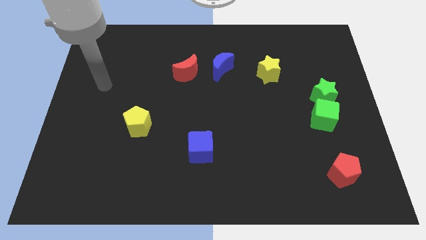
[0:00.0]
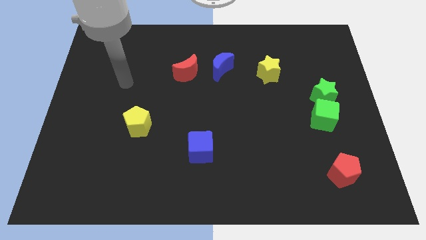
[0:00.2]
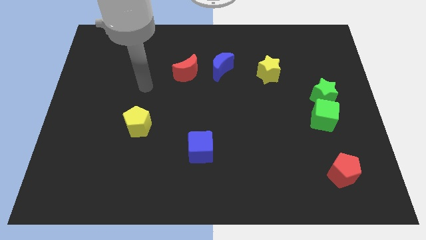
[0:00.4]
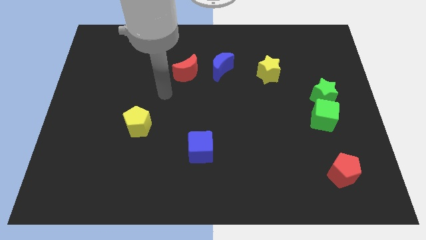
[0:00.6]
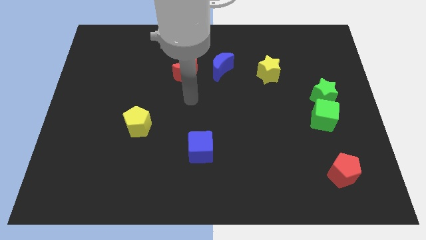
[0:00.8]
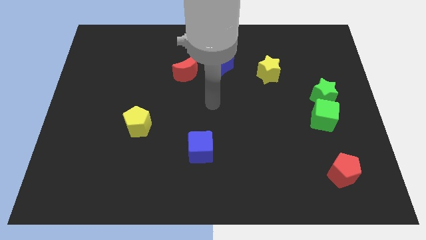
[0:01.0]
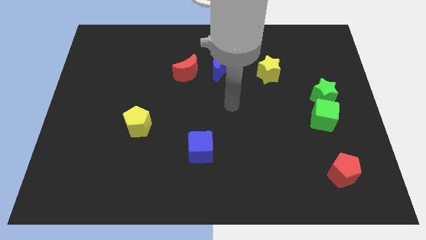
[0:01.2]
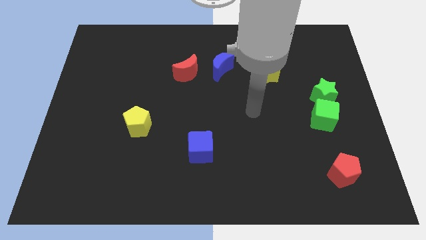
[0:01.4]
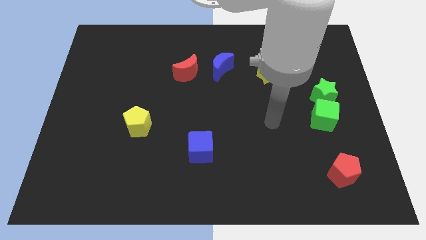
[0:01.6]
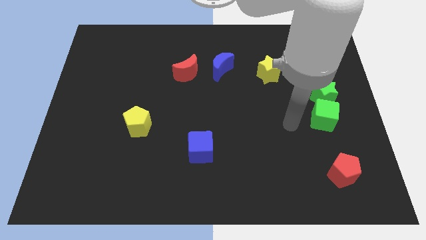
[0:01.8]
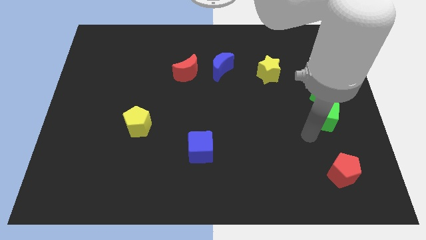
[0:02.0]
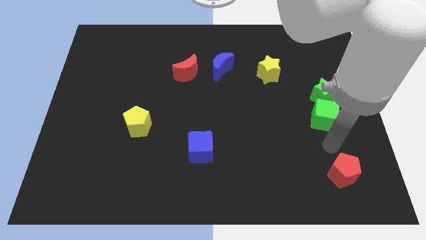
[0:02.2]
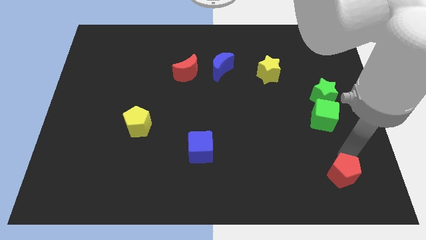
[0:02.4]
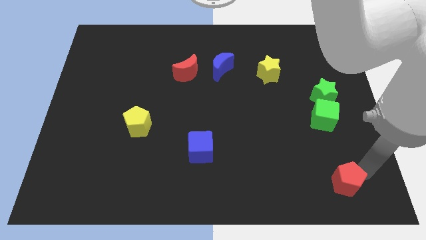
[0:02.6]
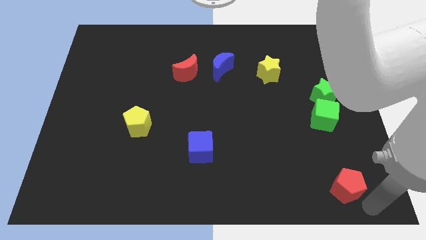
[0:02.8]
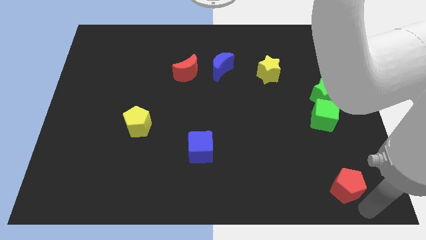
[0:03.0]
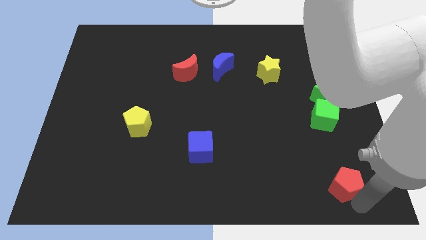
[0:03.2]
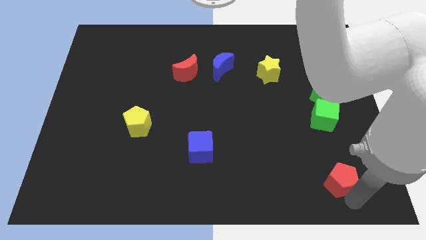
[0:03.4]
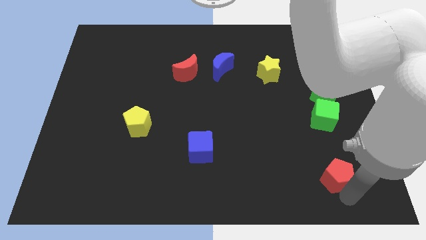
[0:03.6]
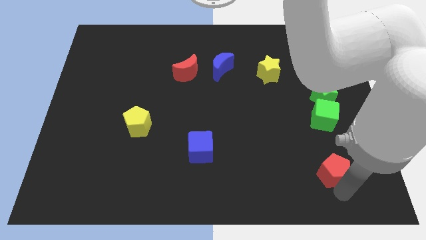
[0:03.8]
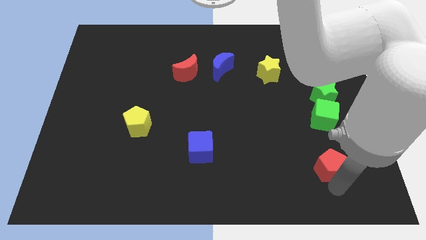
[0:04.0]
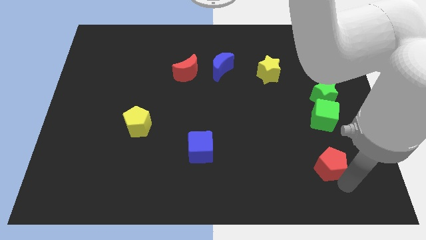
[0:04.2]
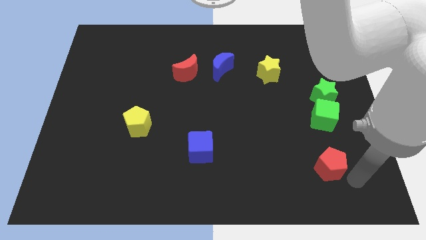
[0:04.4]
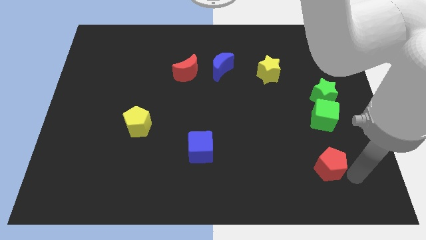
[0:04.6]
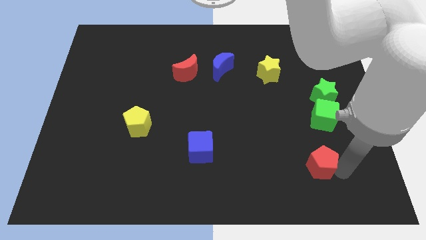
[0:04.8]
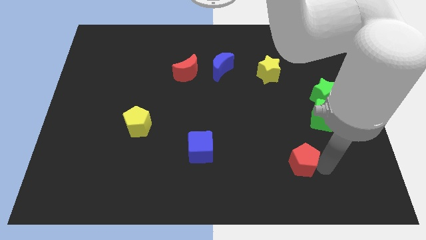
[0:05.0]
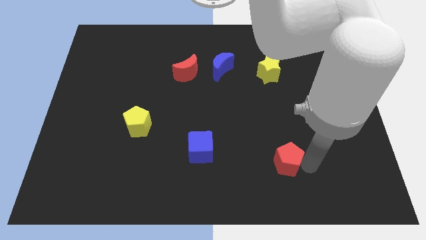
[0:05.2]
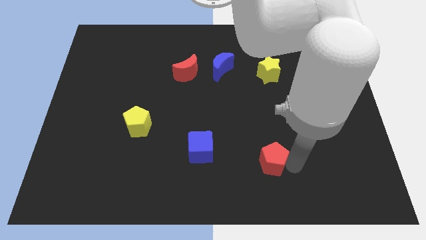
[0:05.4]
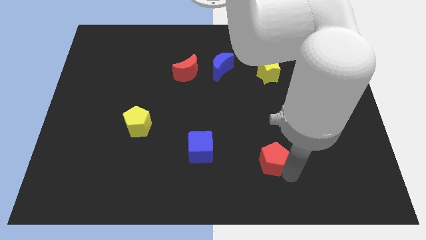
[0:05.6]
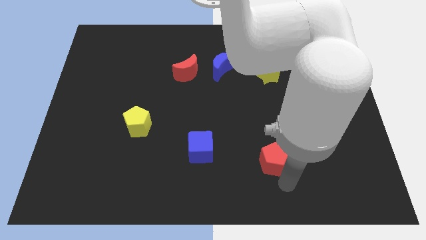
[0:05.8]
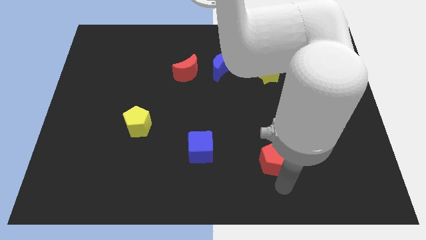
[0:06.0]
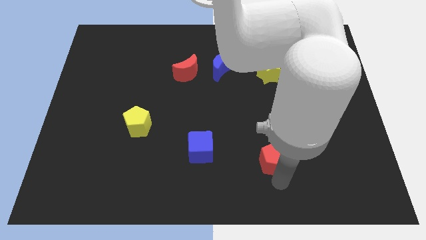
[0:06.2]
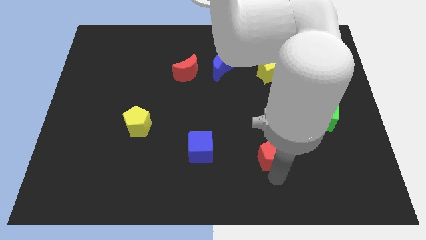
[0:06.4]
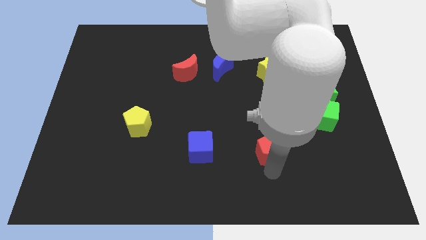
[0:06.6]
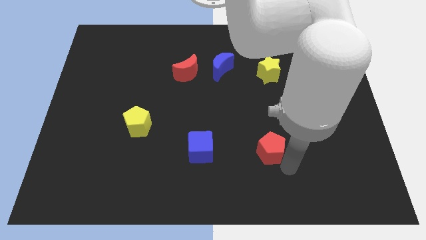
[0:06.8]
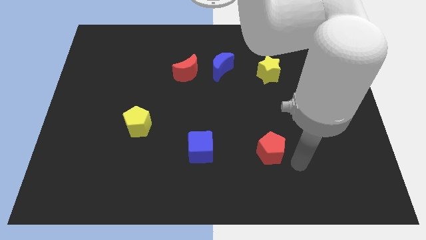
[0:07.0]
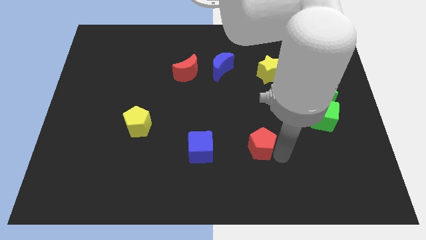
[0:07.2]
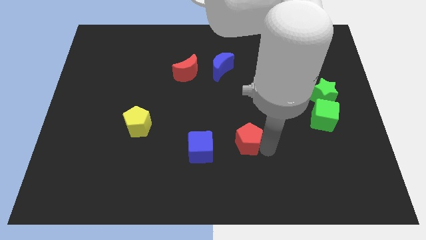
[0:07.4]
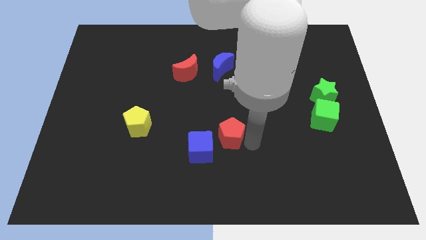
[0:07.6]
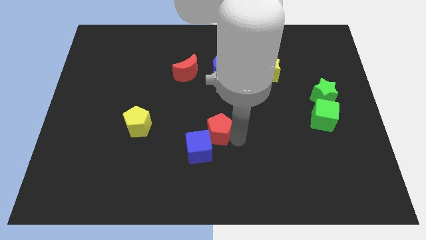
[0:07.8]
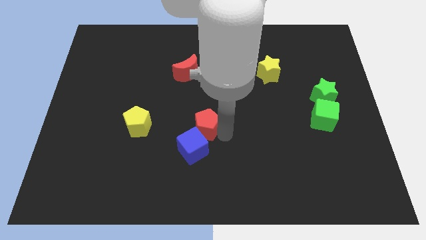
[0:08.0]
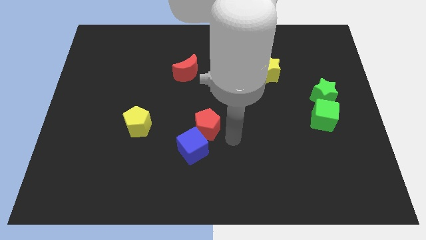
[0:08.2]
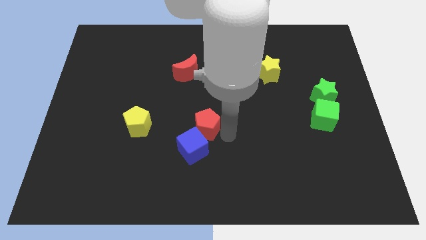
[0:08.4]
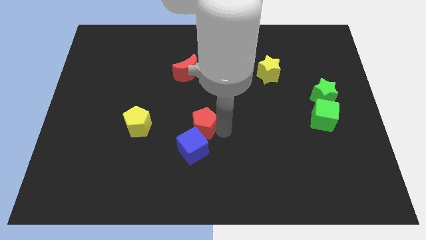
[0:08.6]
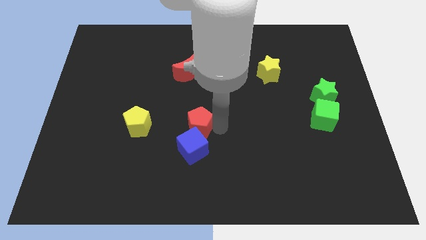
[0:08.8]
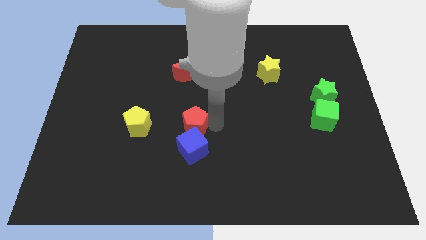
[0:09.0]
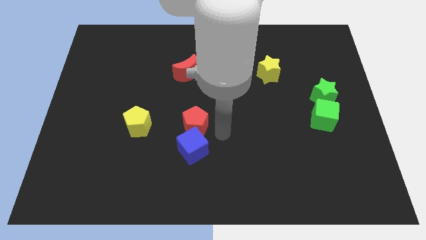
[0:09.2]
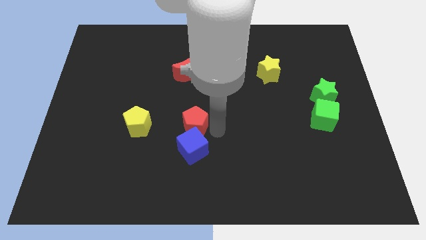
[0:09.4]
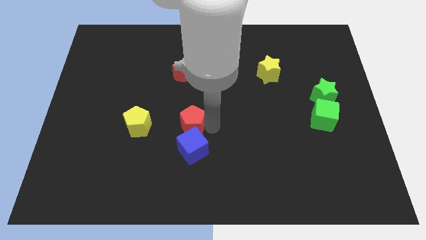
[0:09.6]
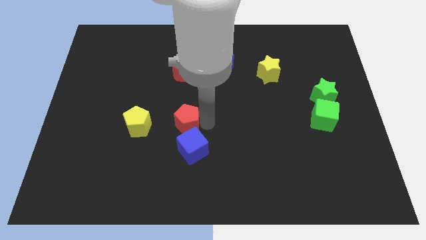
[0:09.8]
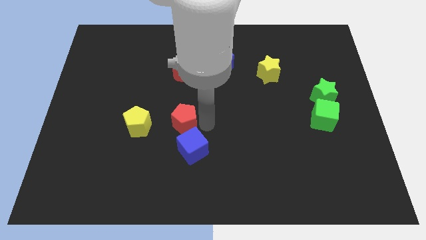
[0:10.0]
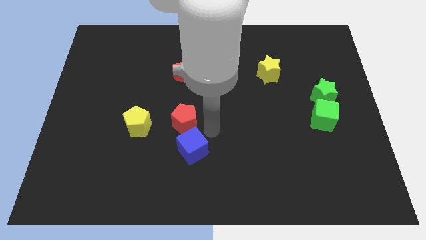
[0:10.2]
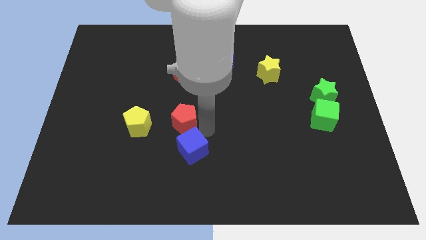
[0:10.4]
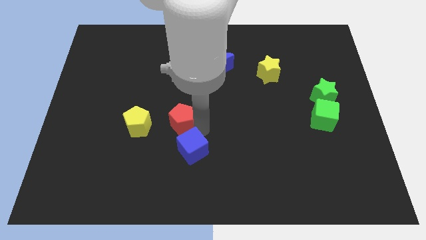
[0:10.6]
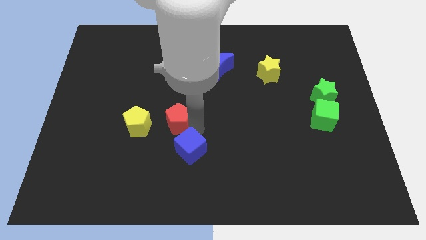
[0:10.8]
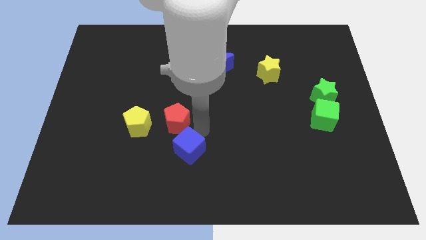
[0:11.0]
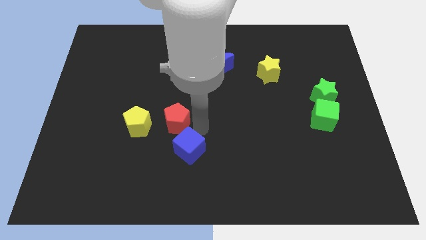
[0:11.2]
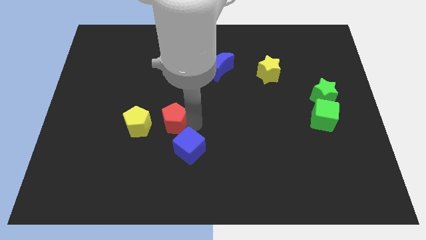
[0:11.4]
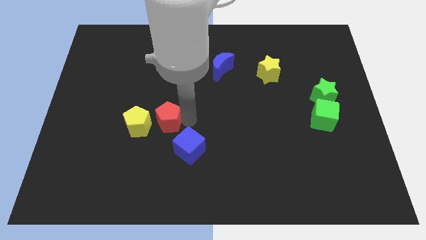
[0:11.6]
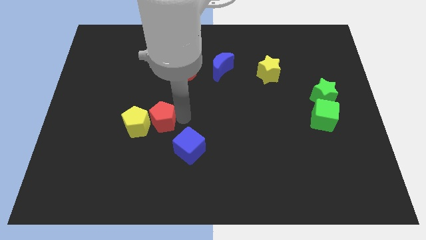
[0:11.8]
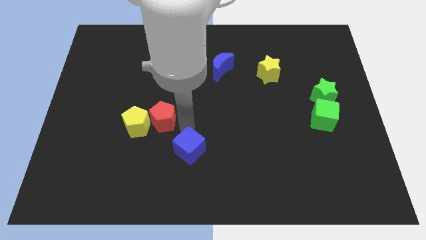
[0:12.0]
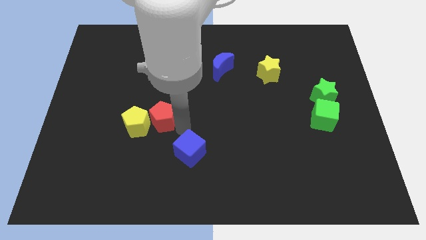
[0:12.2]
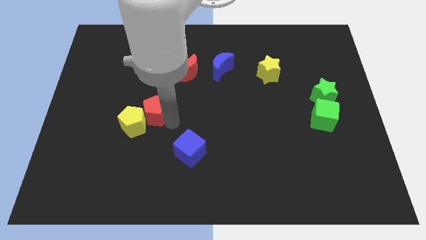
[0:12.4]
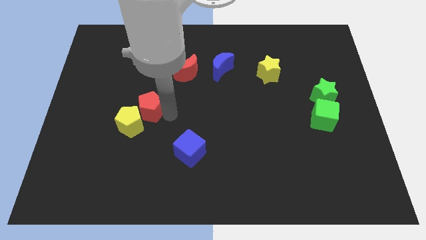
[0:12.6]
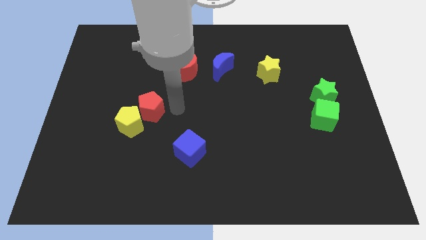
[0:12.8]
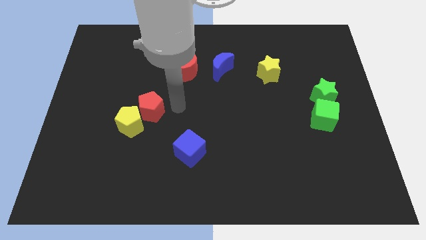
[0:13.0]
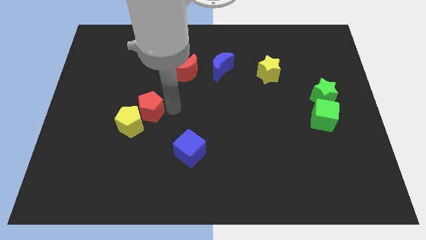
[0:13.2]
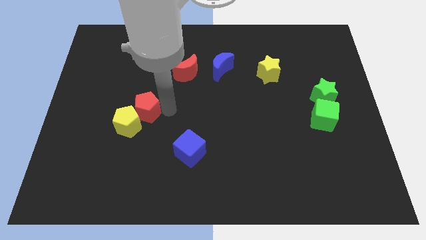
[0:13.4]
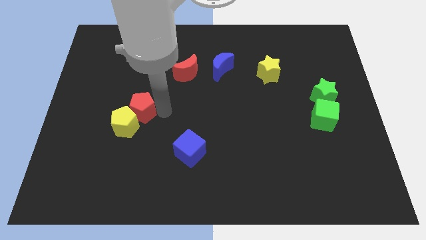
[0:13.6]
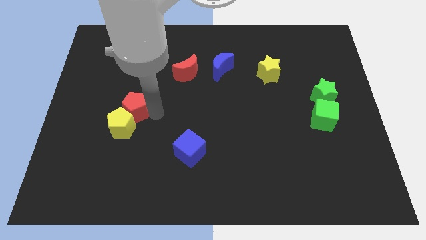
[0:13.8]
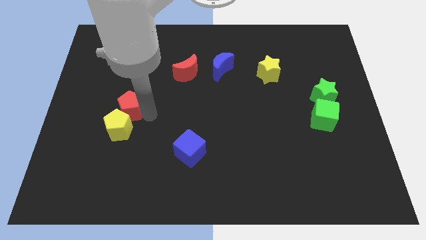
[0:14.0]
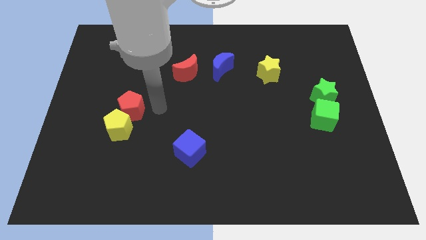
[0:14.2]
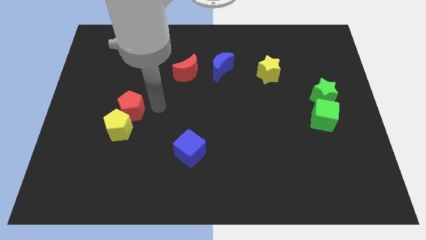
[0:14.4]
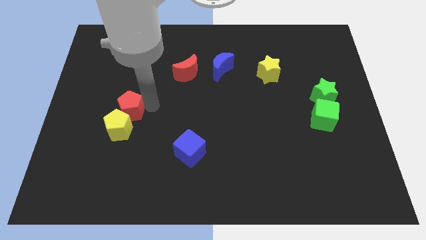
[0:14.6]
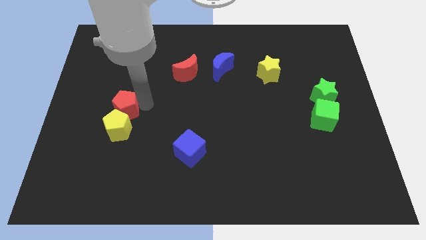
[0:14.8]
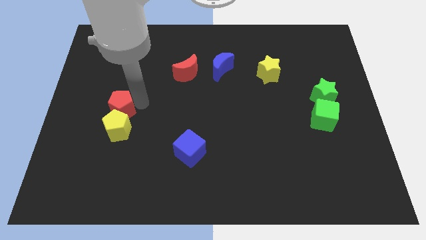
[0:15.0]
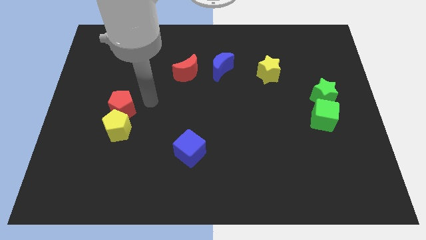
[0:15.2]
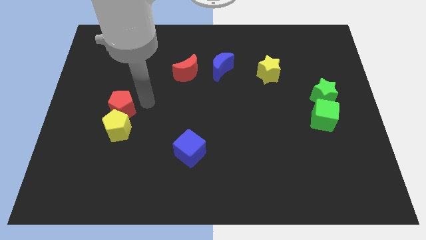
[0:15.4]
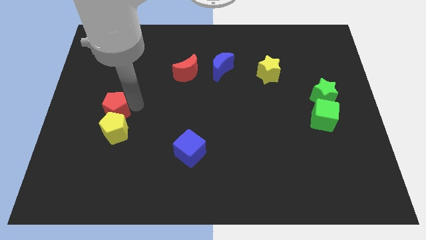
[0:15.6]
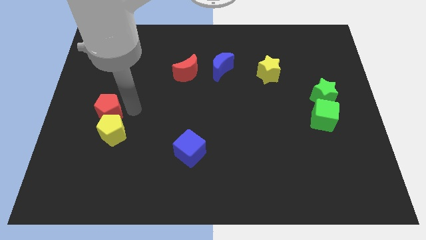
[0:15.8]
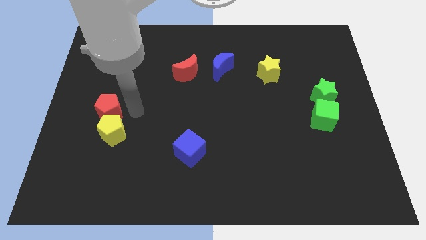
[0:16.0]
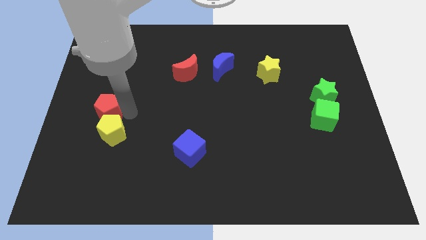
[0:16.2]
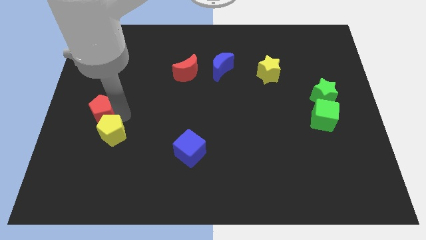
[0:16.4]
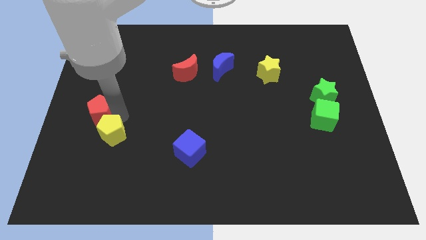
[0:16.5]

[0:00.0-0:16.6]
move the red pentagon to the left side
